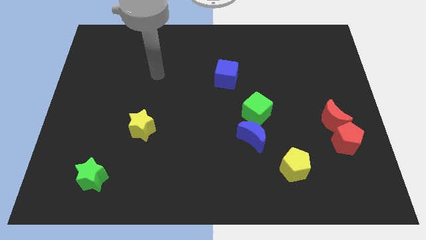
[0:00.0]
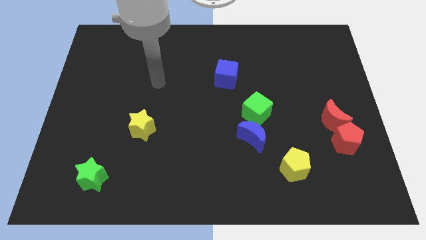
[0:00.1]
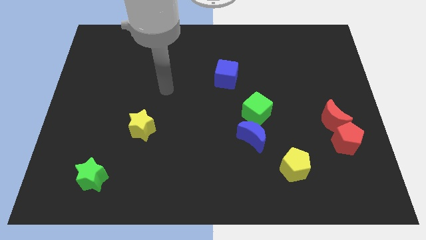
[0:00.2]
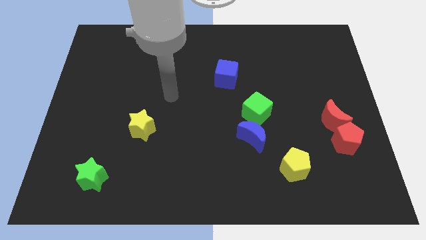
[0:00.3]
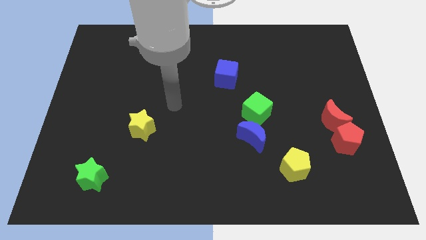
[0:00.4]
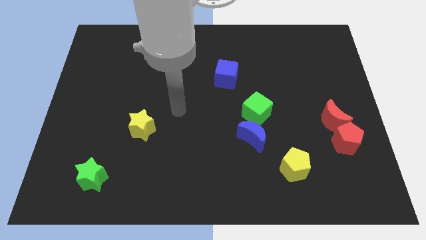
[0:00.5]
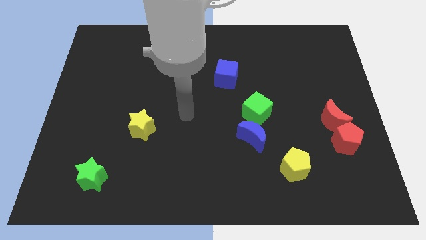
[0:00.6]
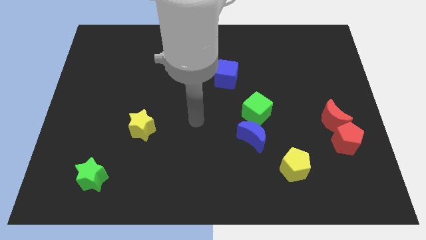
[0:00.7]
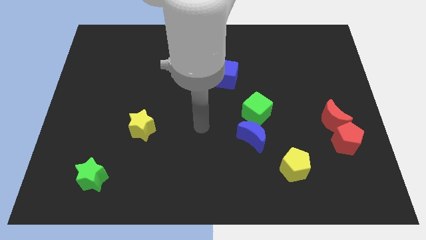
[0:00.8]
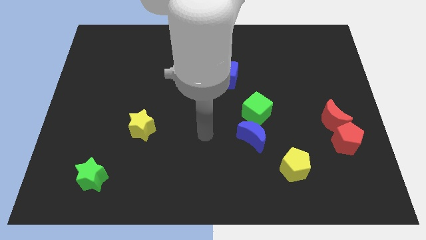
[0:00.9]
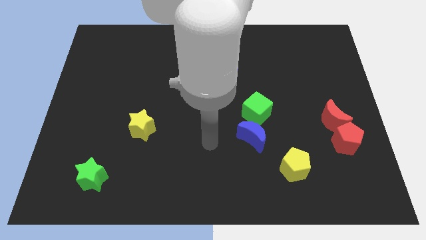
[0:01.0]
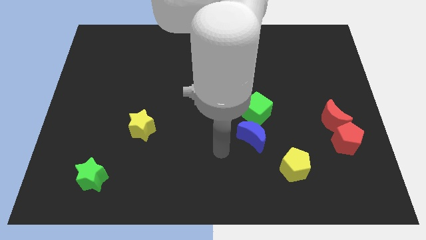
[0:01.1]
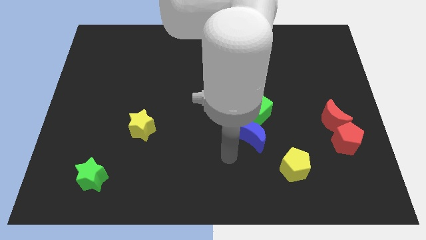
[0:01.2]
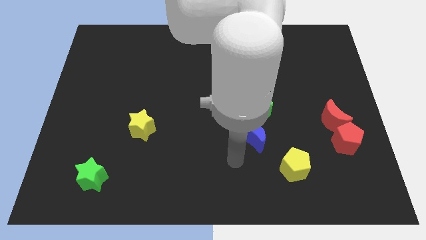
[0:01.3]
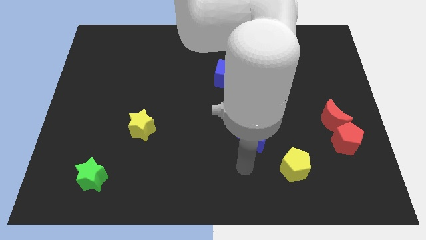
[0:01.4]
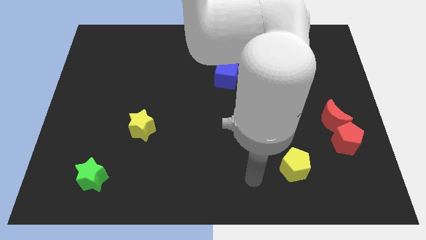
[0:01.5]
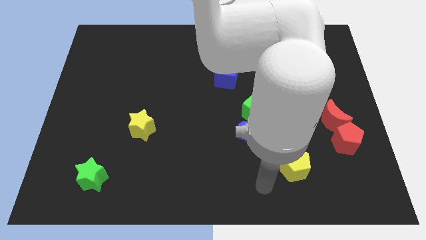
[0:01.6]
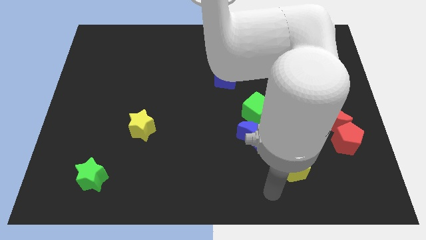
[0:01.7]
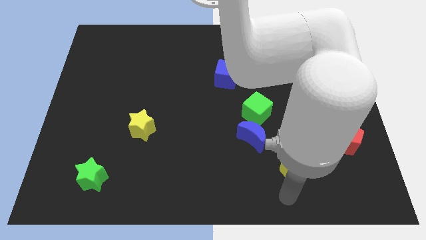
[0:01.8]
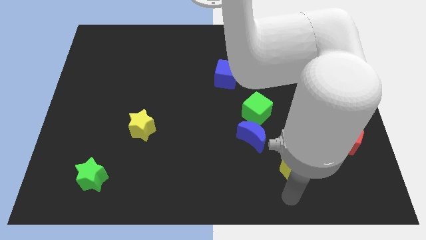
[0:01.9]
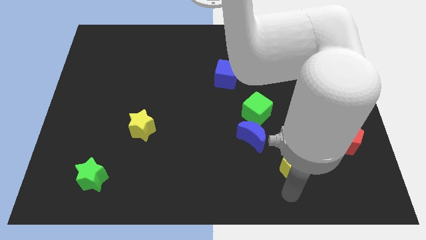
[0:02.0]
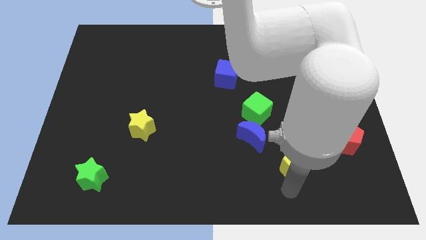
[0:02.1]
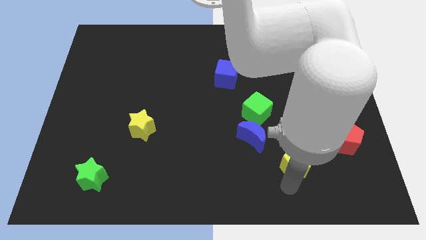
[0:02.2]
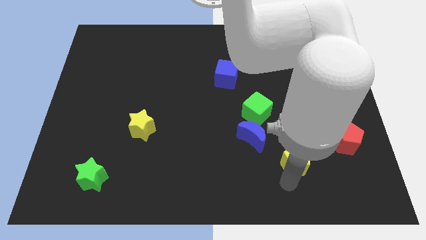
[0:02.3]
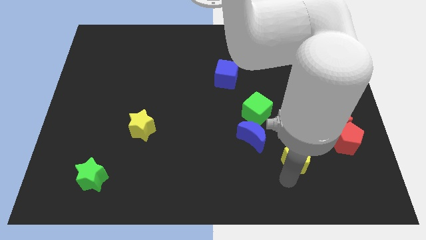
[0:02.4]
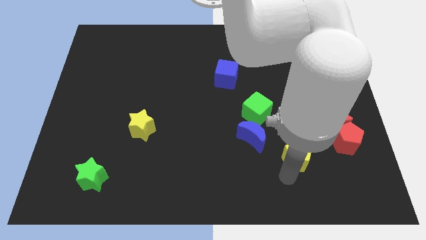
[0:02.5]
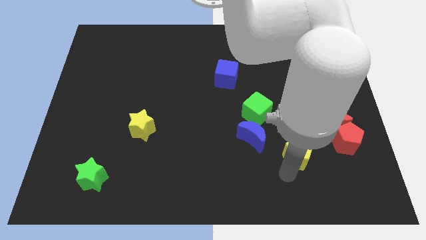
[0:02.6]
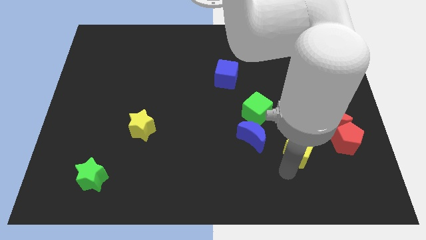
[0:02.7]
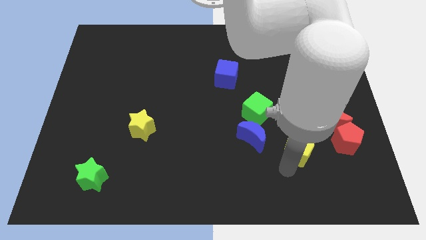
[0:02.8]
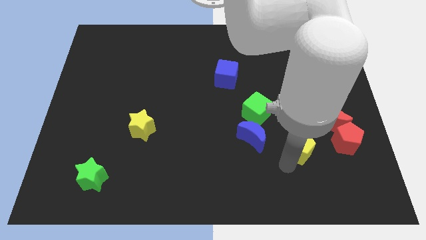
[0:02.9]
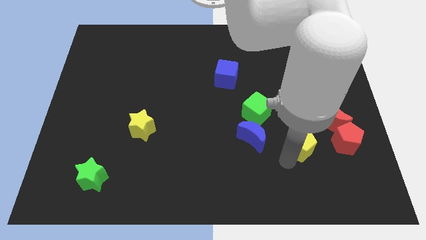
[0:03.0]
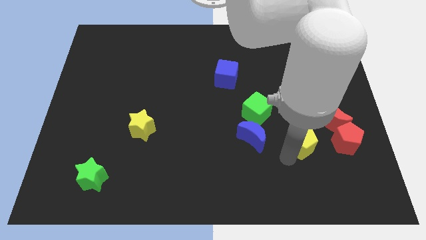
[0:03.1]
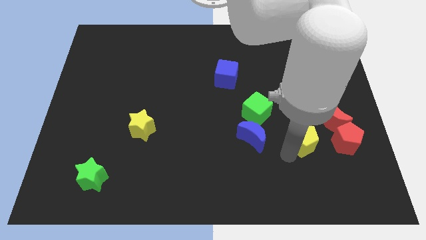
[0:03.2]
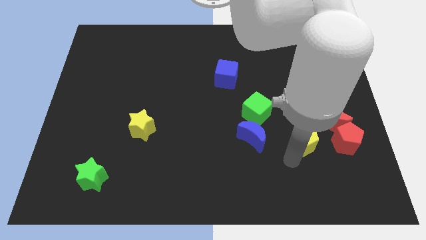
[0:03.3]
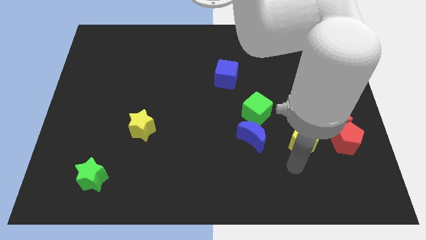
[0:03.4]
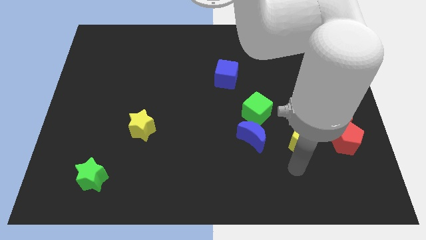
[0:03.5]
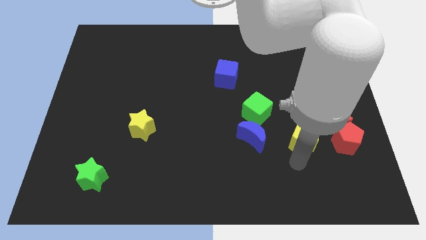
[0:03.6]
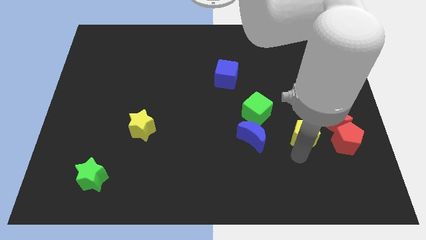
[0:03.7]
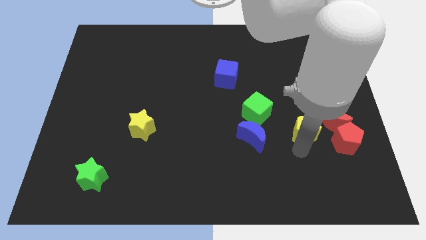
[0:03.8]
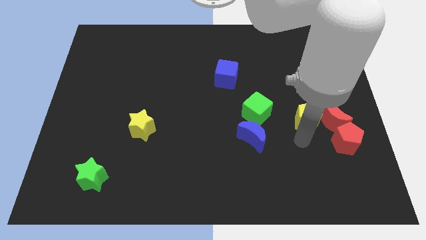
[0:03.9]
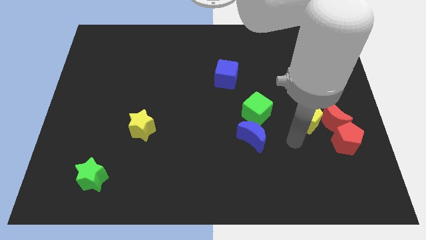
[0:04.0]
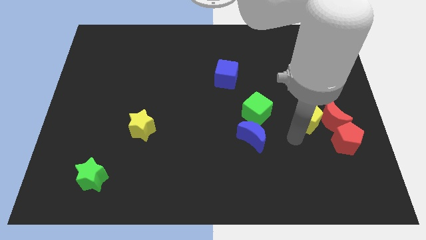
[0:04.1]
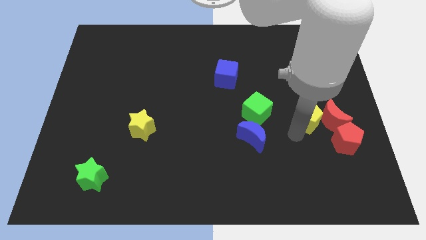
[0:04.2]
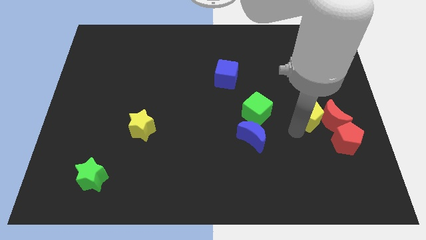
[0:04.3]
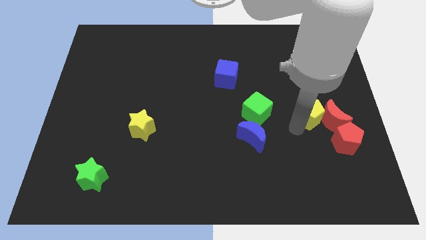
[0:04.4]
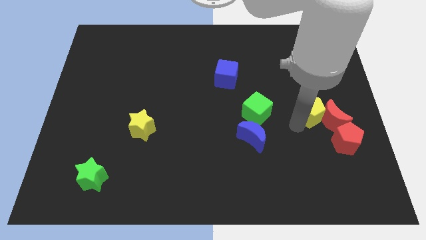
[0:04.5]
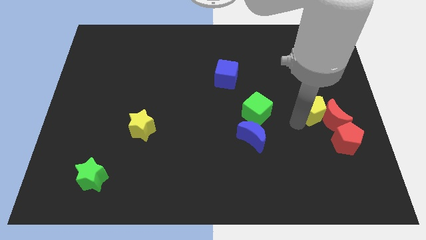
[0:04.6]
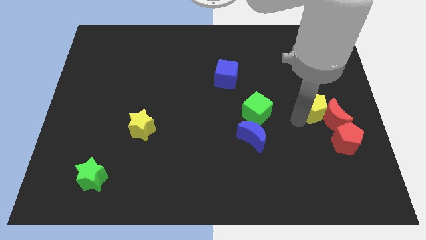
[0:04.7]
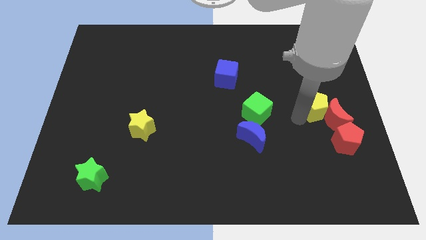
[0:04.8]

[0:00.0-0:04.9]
move the yellow pentagon above the red moon

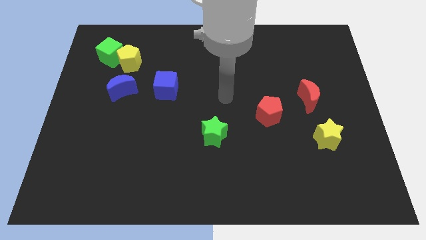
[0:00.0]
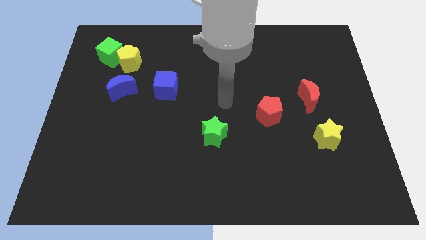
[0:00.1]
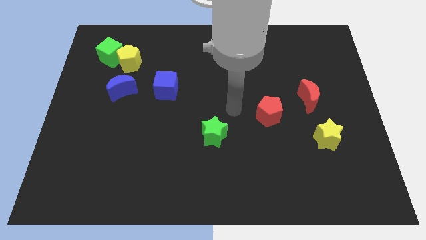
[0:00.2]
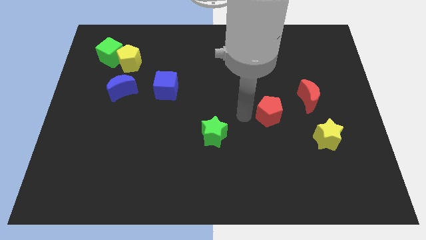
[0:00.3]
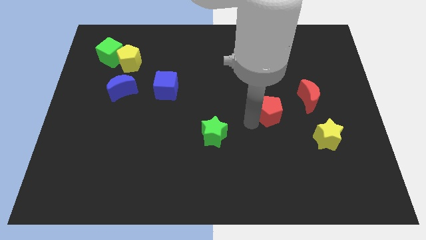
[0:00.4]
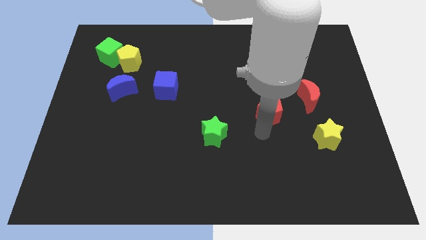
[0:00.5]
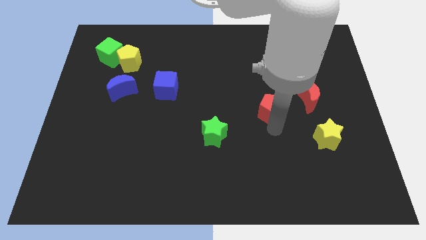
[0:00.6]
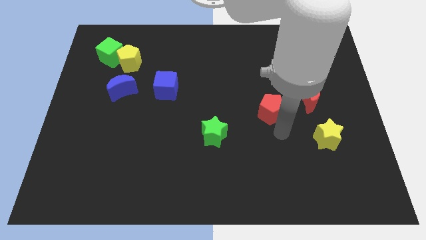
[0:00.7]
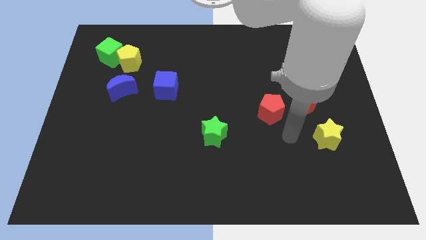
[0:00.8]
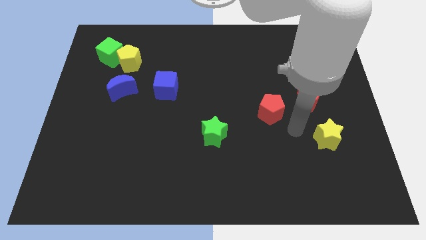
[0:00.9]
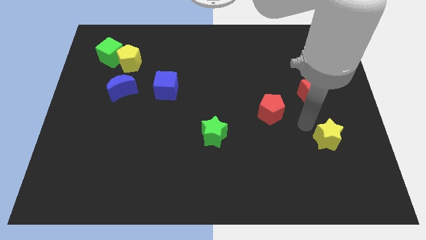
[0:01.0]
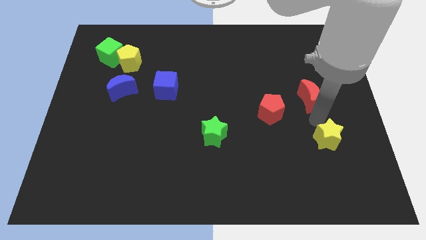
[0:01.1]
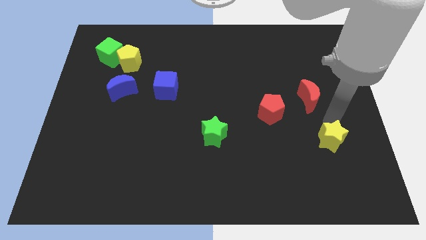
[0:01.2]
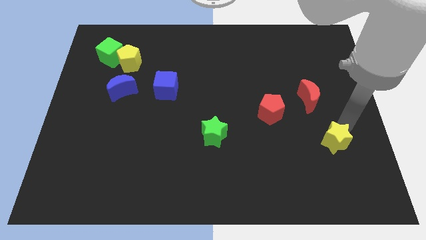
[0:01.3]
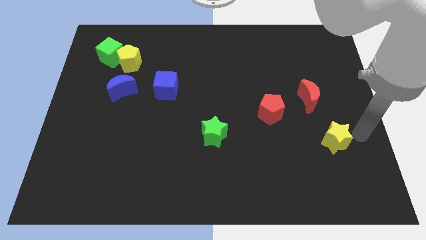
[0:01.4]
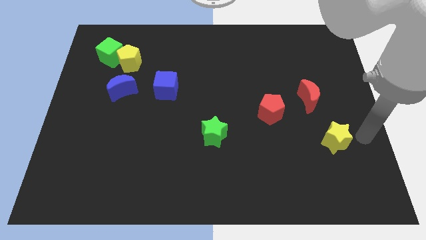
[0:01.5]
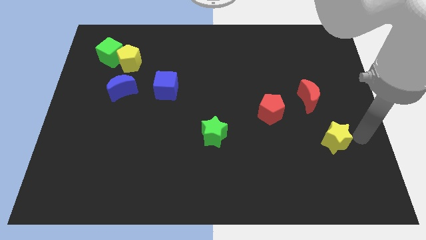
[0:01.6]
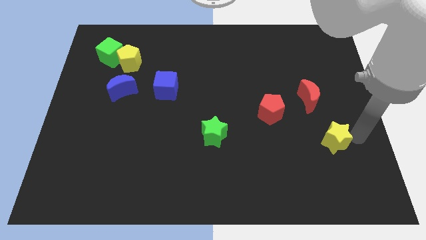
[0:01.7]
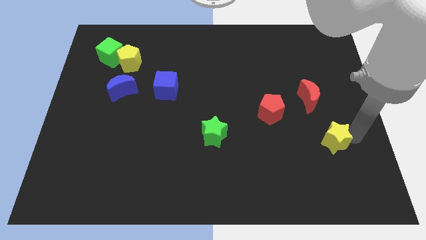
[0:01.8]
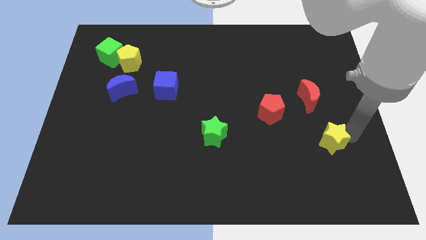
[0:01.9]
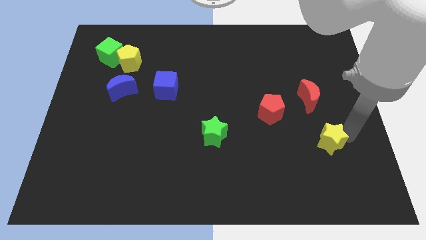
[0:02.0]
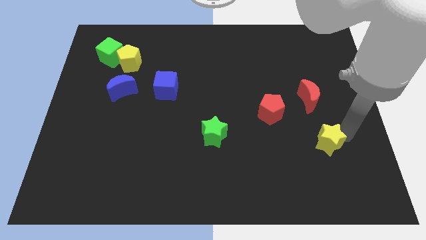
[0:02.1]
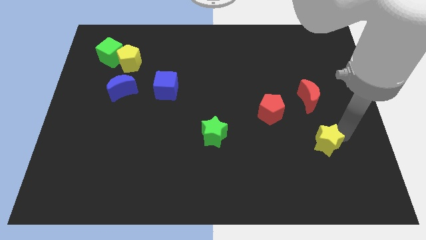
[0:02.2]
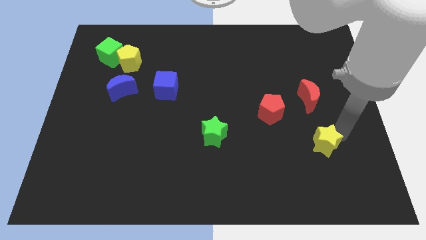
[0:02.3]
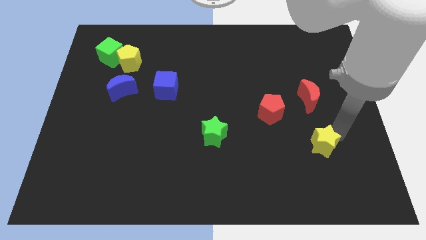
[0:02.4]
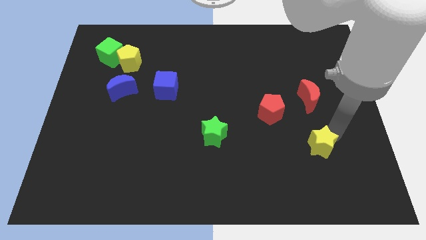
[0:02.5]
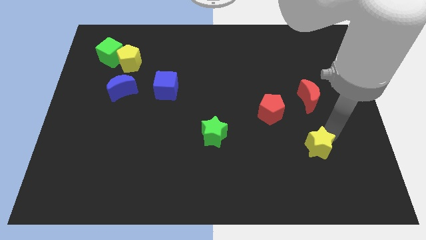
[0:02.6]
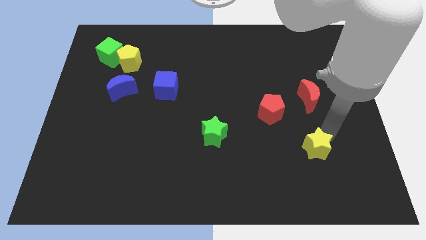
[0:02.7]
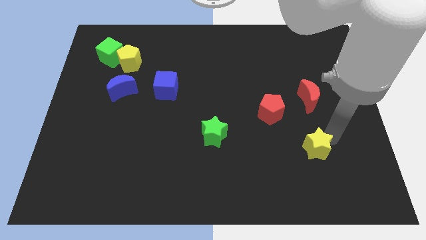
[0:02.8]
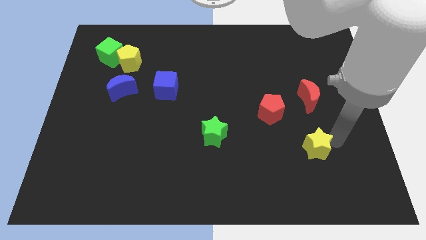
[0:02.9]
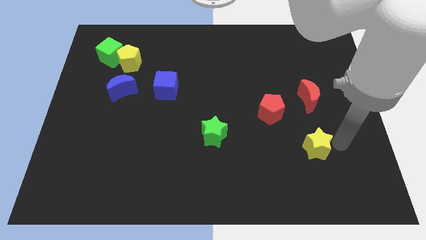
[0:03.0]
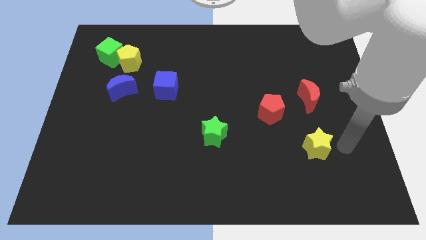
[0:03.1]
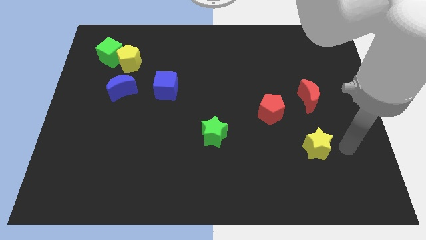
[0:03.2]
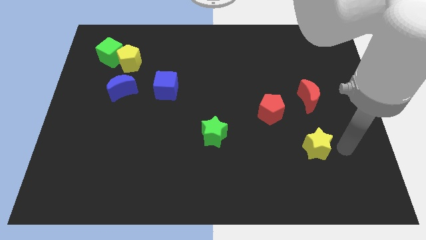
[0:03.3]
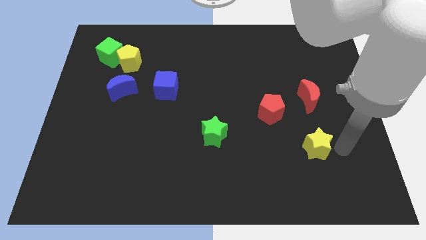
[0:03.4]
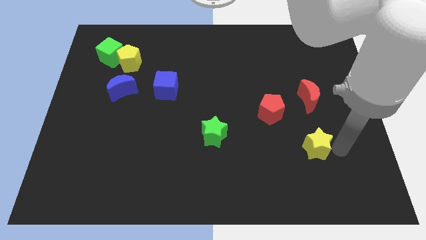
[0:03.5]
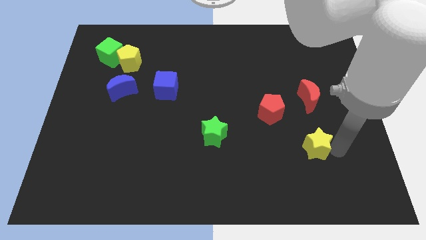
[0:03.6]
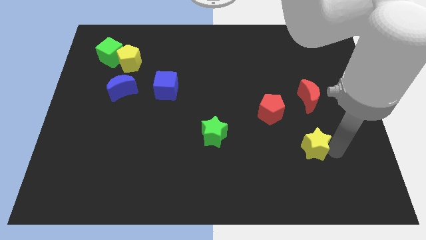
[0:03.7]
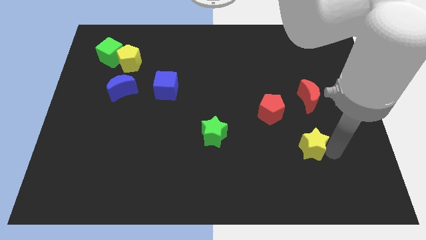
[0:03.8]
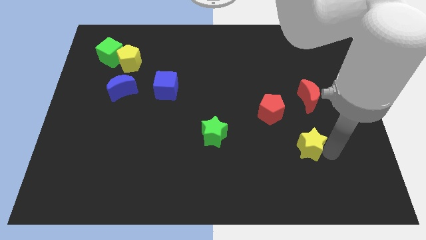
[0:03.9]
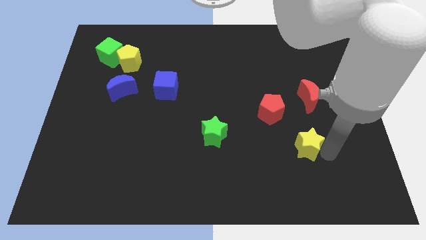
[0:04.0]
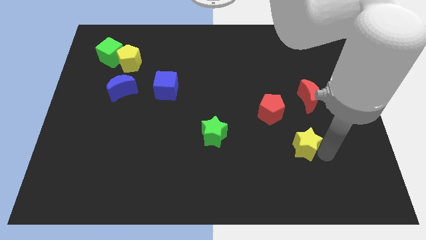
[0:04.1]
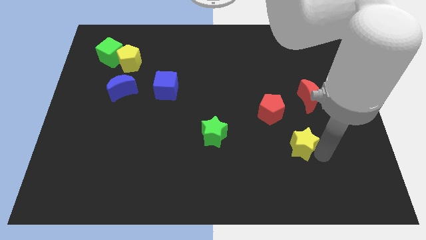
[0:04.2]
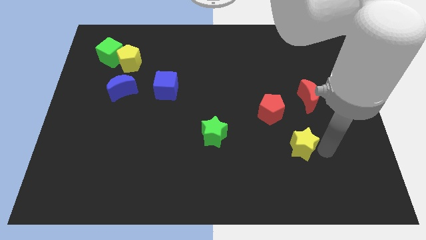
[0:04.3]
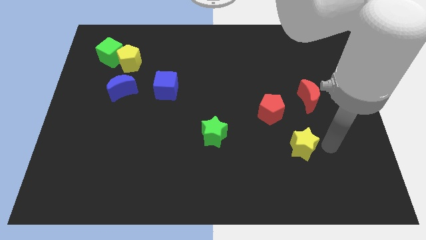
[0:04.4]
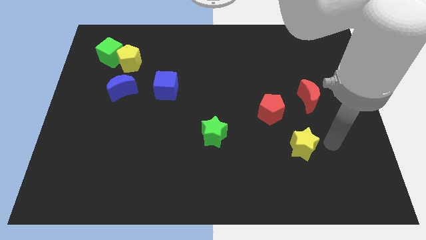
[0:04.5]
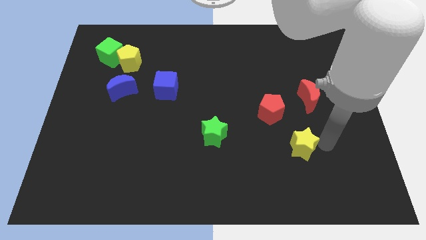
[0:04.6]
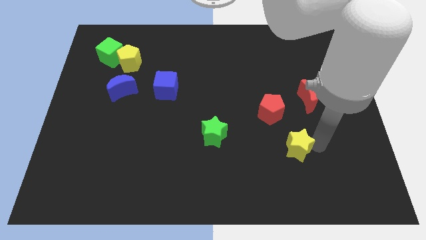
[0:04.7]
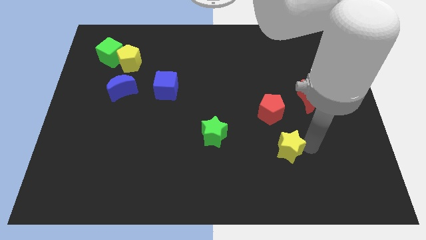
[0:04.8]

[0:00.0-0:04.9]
move the yellow star below the red pentagon
